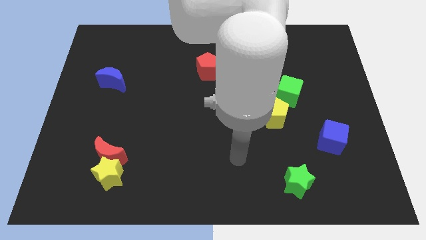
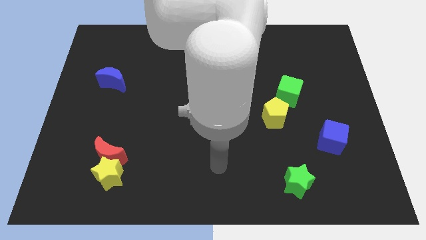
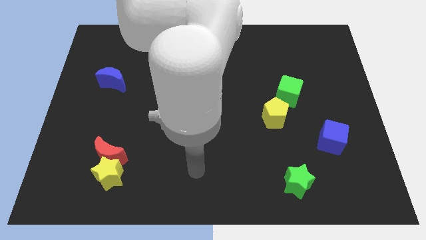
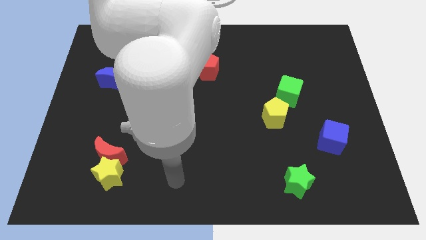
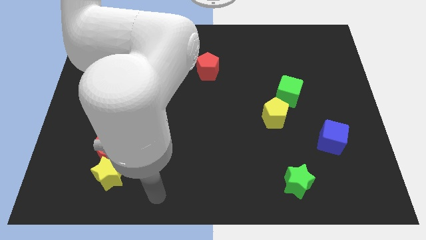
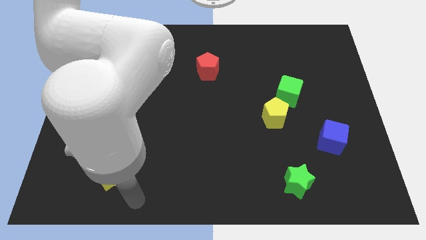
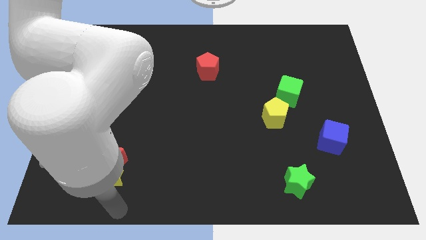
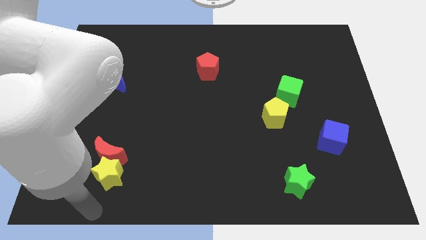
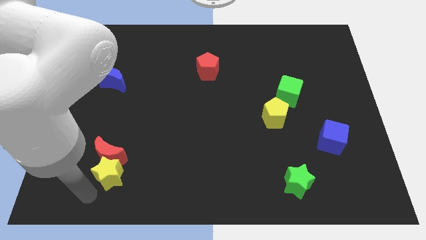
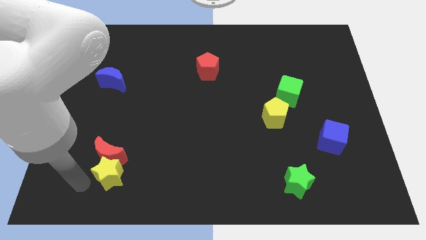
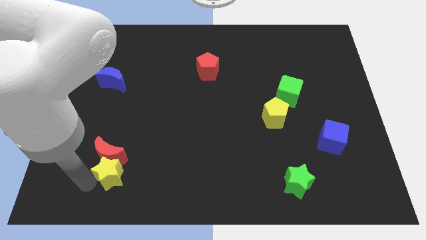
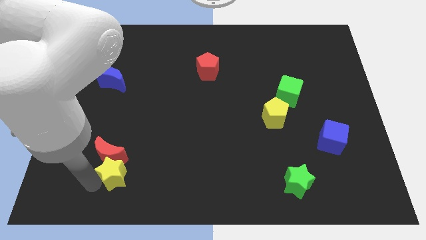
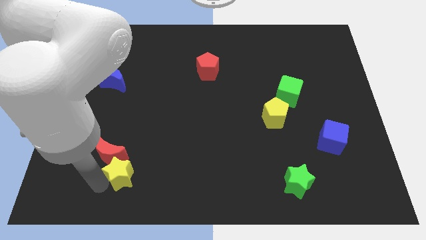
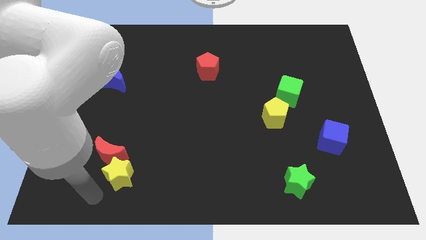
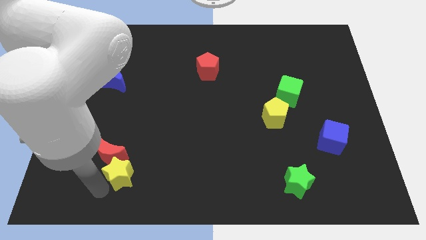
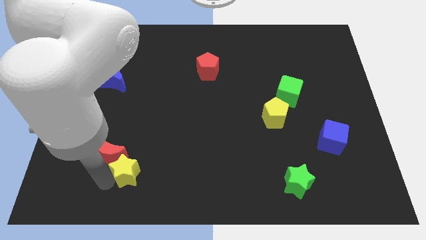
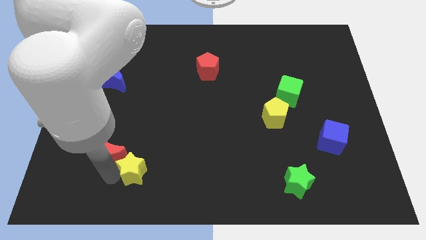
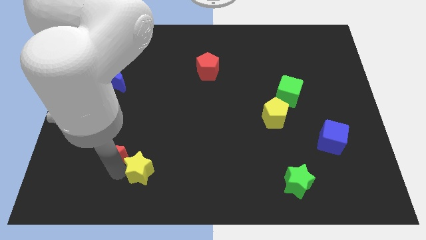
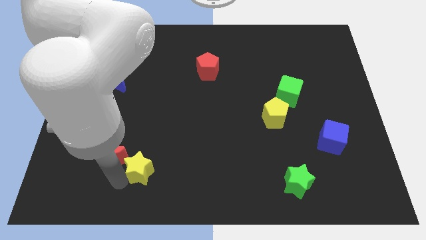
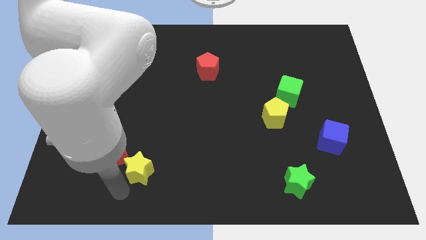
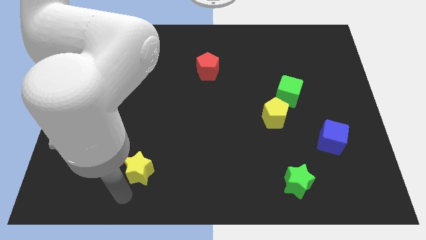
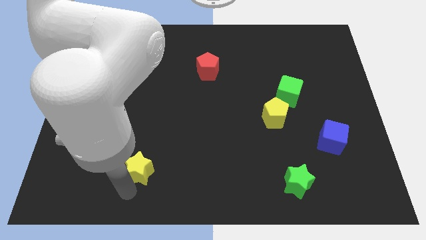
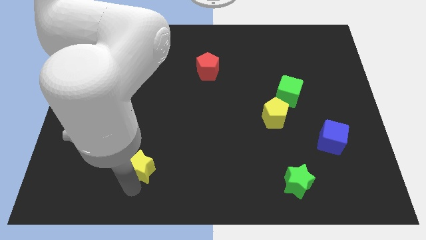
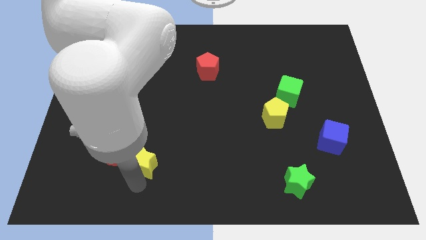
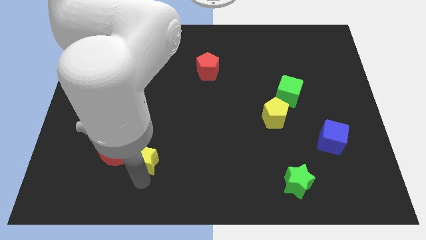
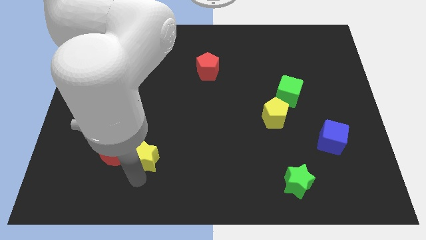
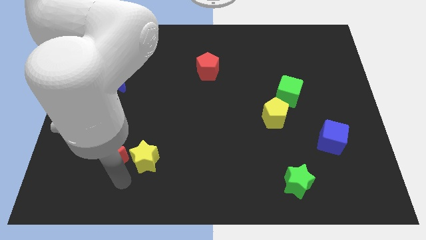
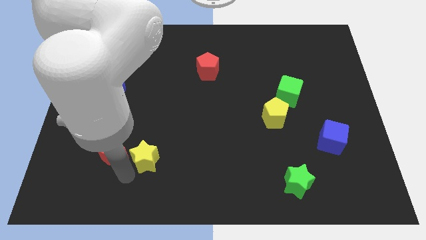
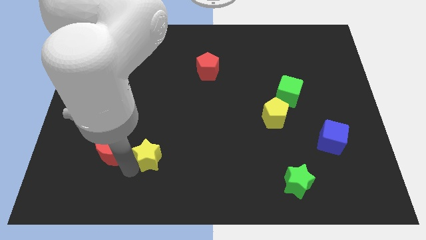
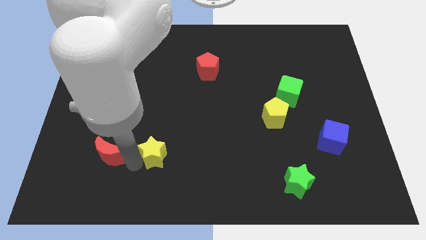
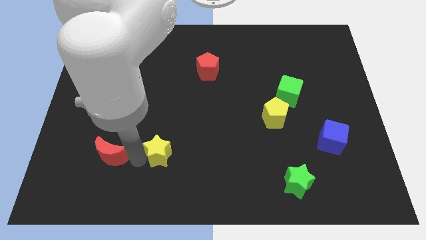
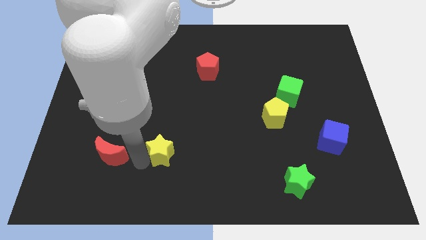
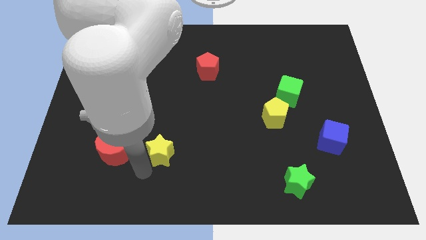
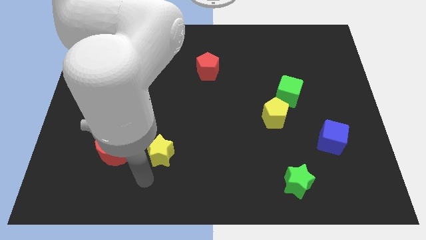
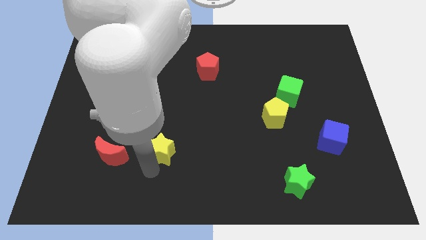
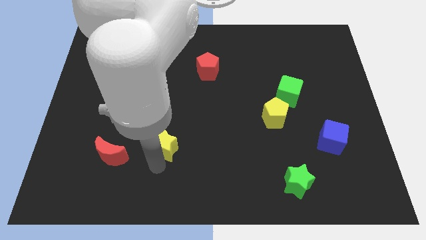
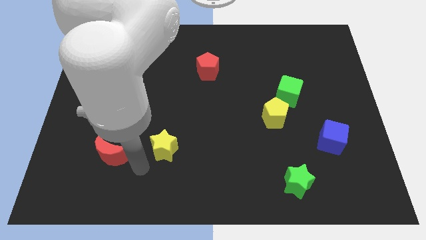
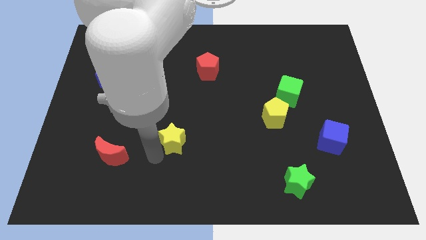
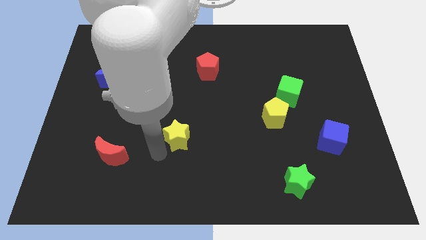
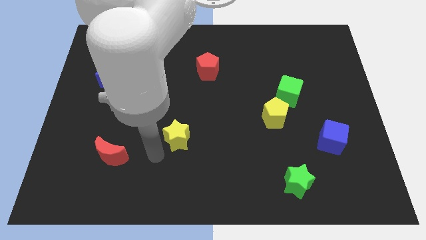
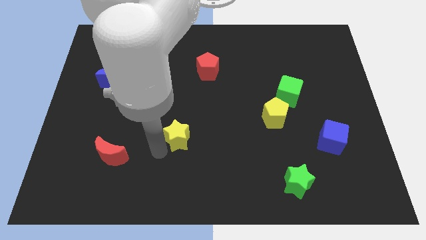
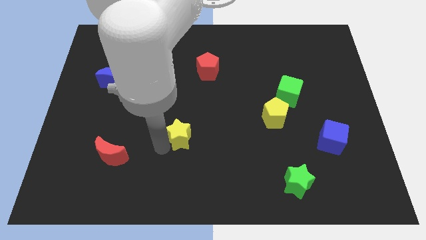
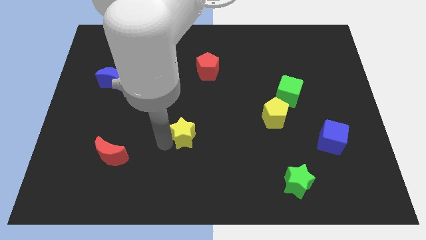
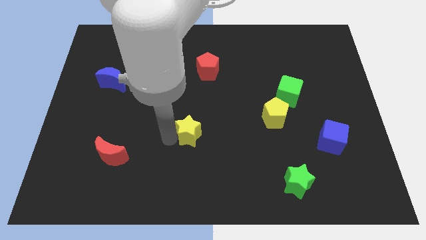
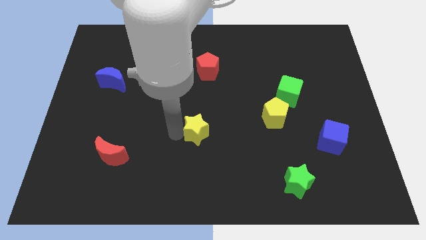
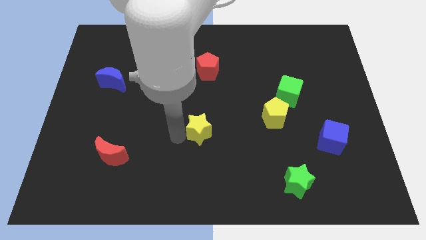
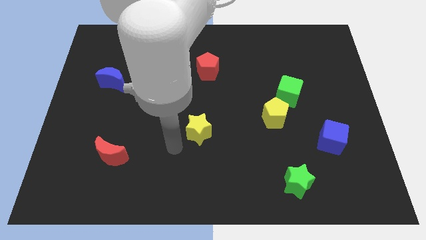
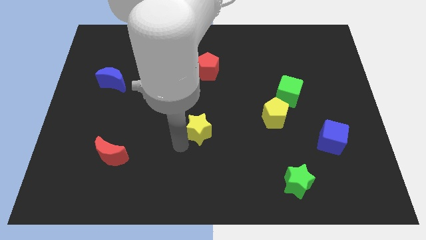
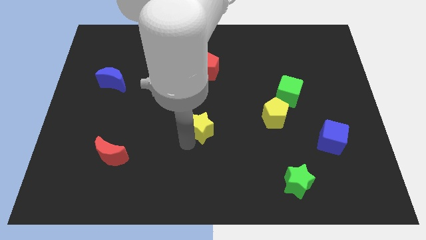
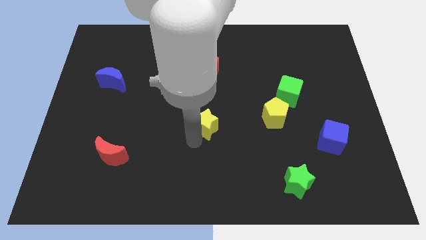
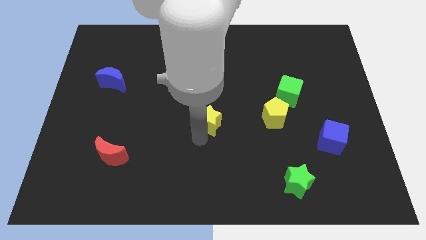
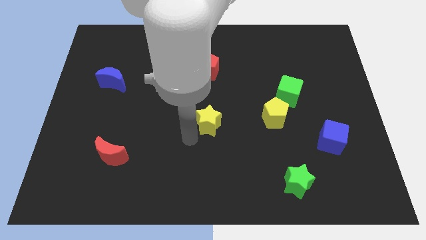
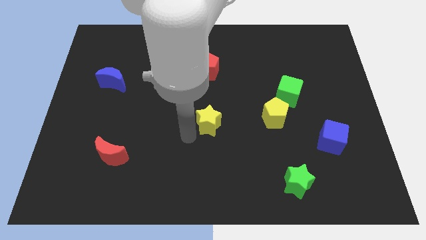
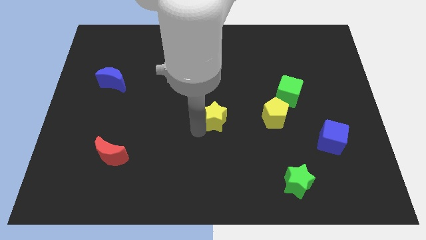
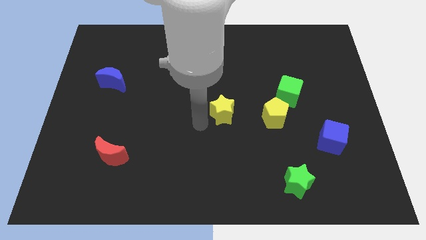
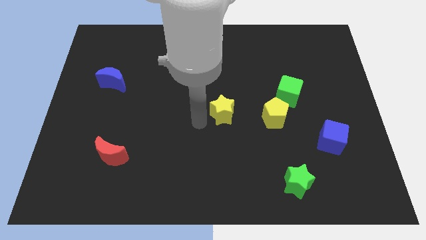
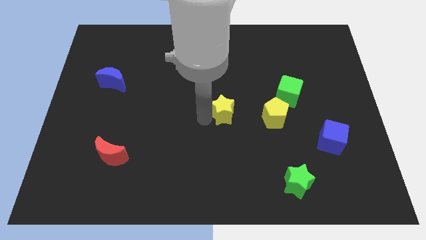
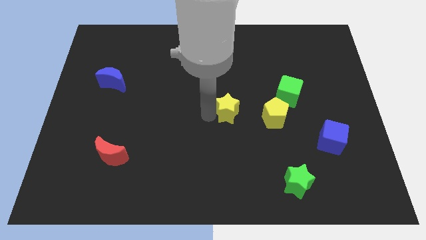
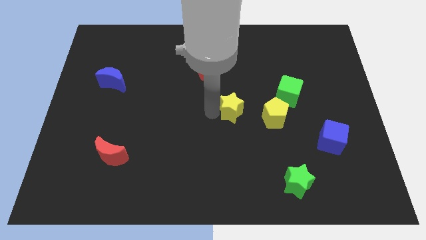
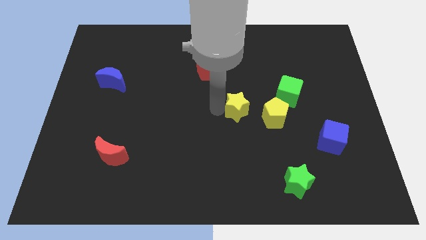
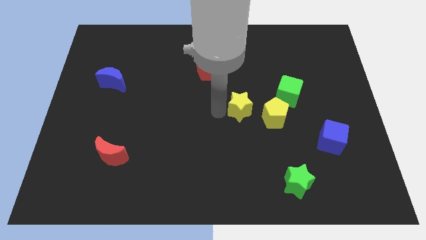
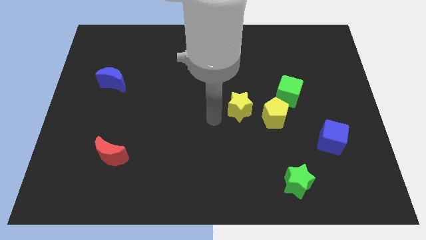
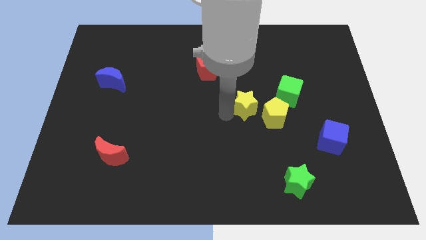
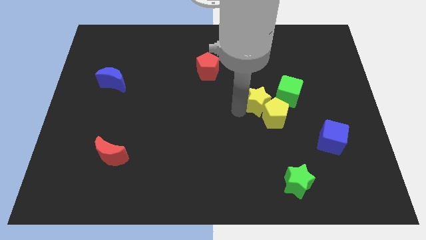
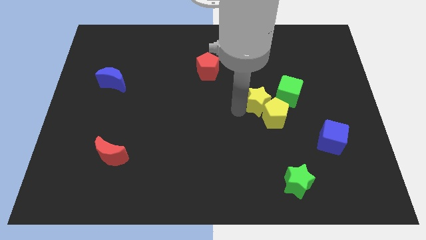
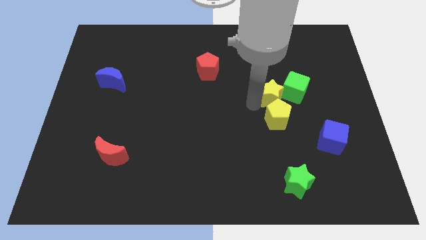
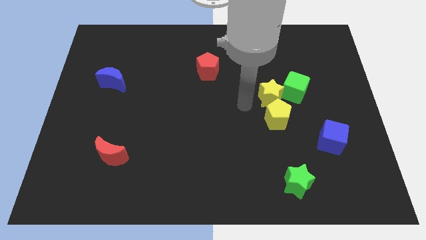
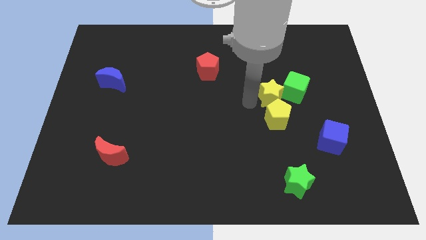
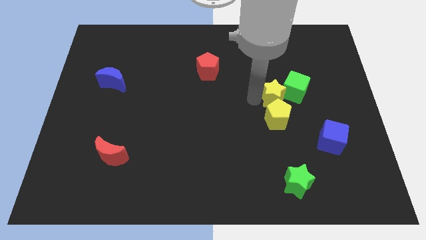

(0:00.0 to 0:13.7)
put the yellow star close to the green cube

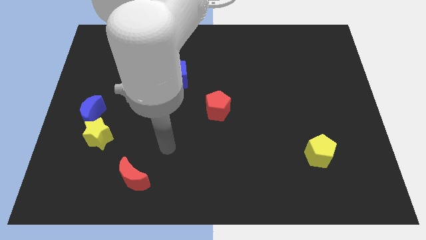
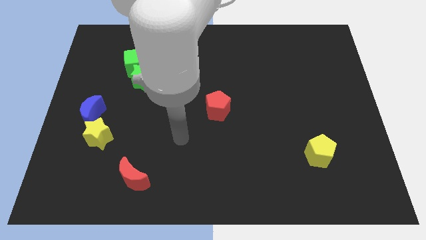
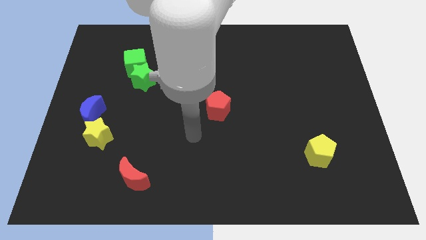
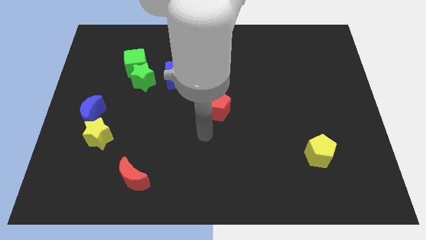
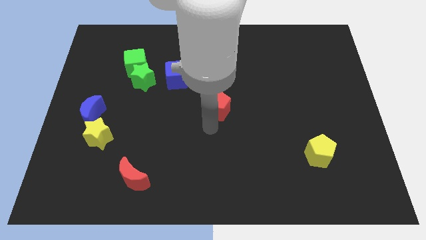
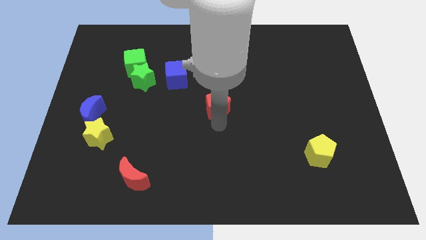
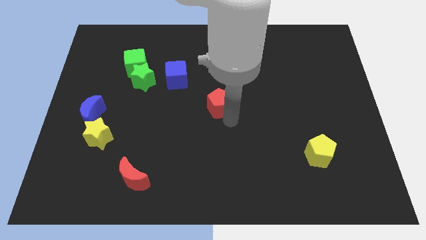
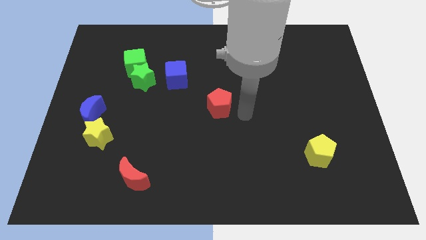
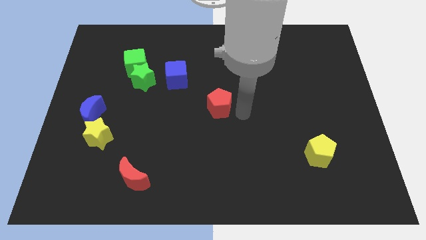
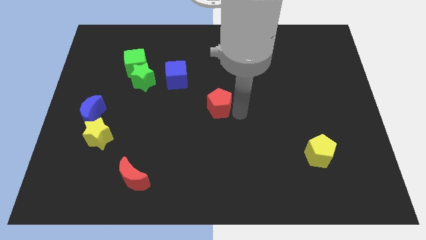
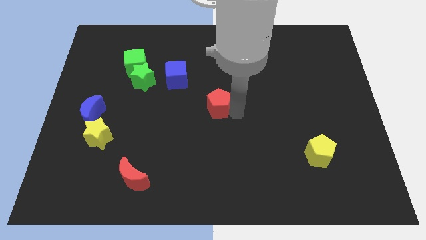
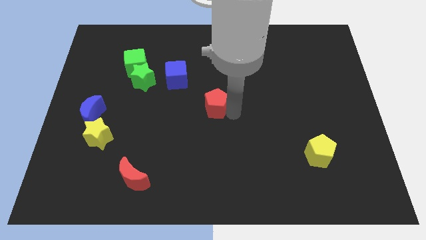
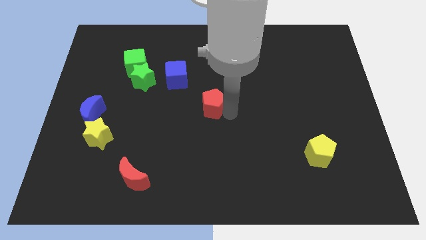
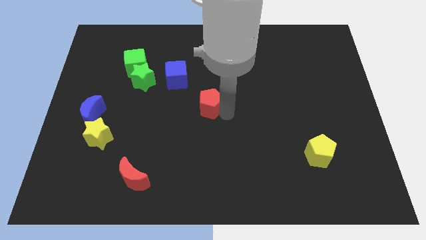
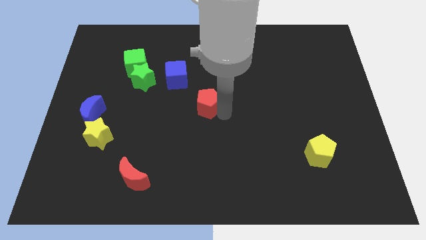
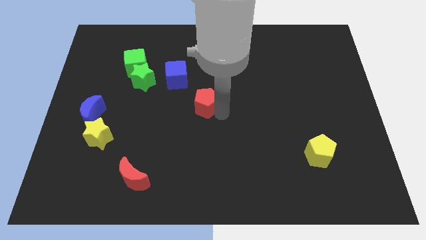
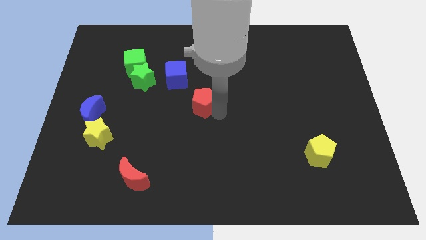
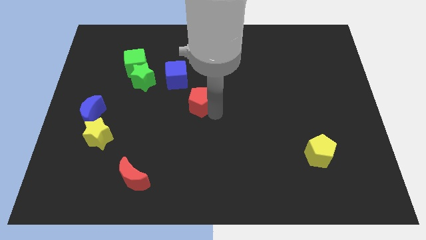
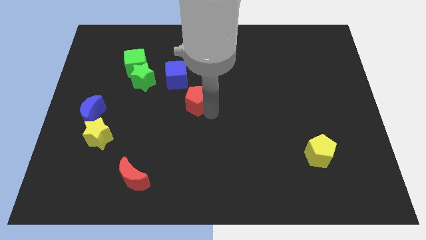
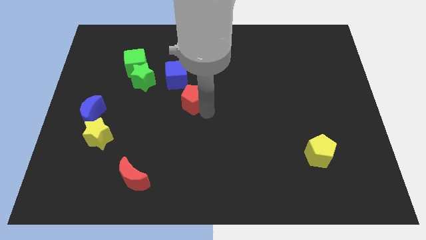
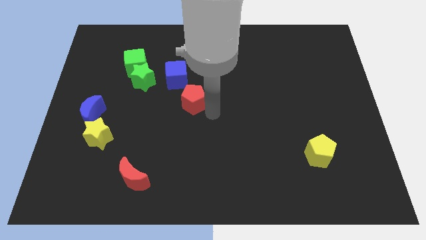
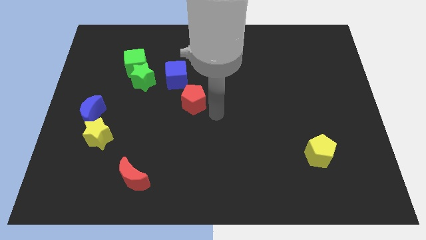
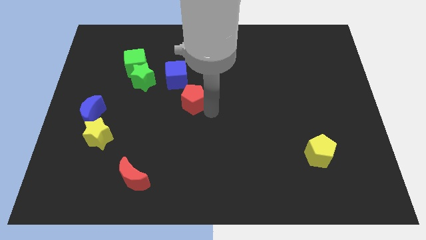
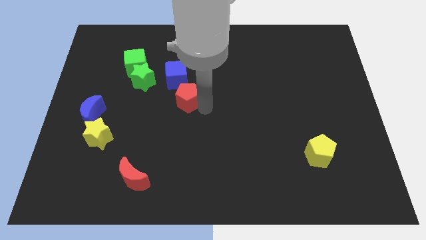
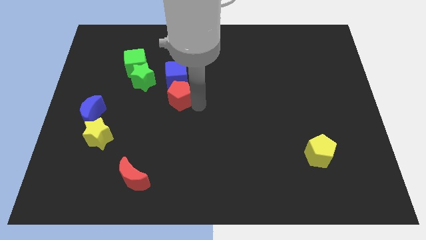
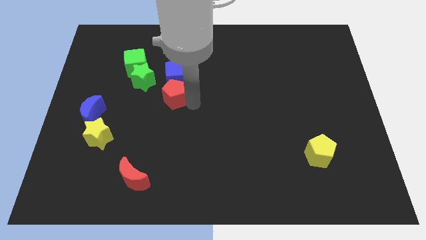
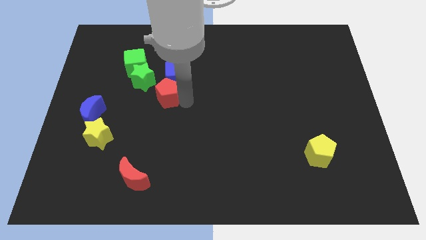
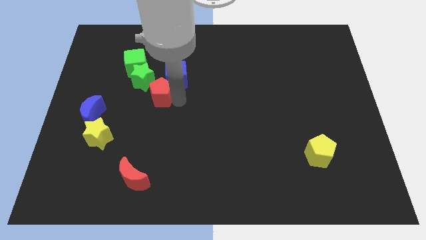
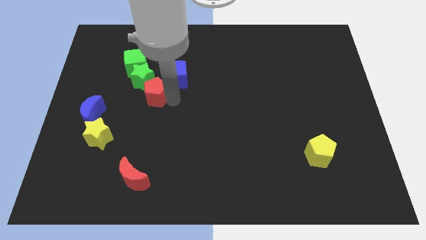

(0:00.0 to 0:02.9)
put the red pentagon next to the green star
